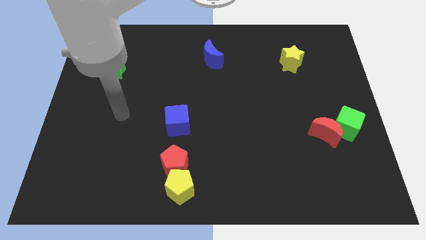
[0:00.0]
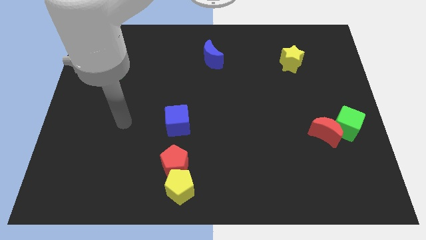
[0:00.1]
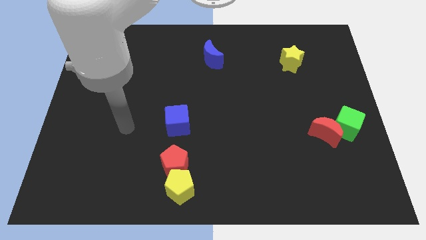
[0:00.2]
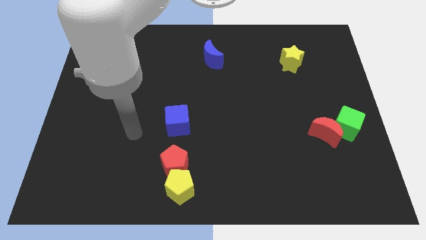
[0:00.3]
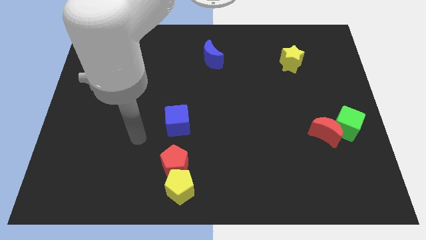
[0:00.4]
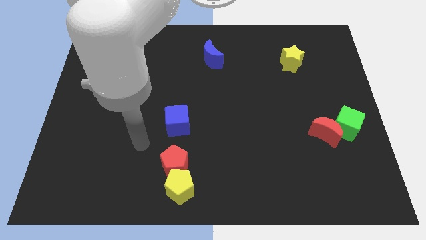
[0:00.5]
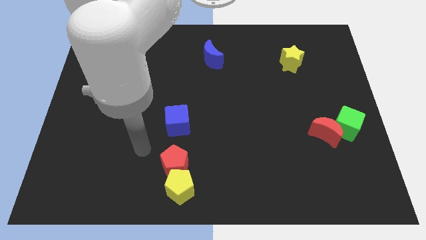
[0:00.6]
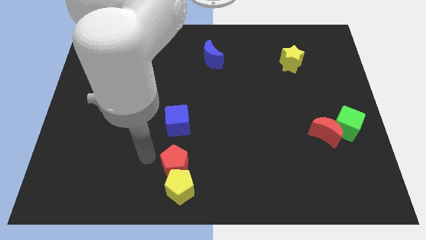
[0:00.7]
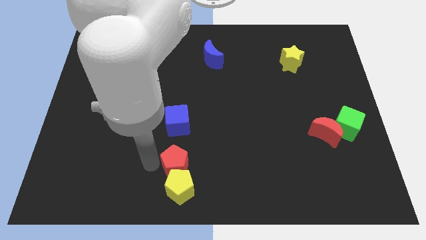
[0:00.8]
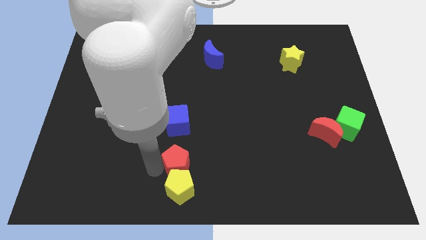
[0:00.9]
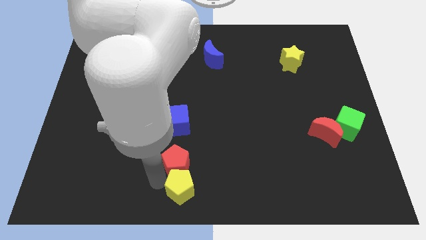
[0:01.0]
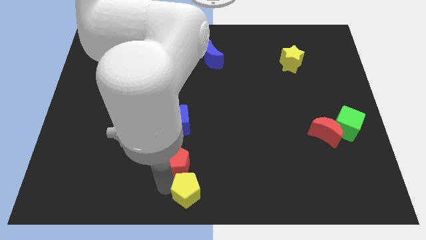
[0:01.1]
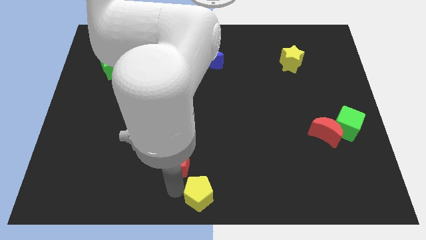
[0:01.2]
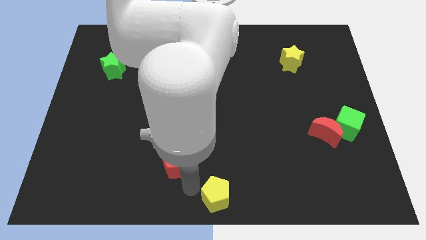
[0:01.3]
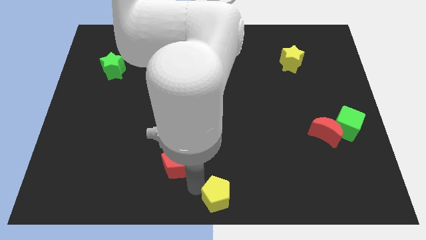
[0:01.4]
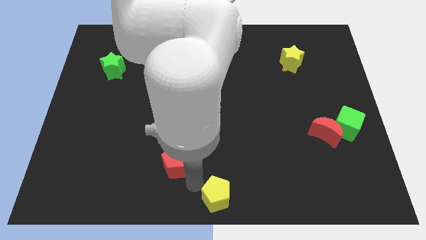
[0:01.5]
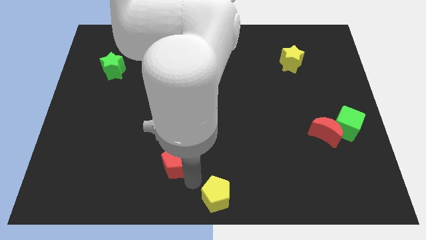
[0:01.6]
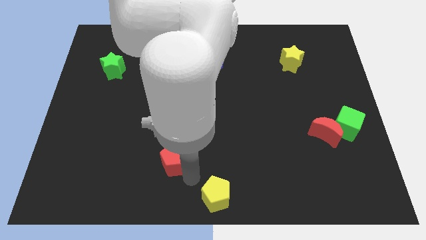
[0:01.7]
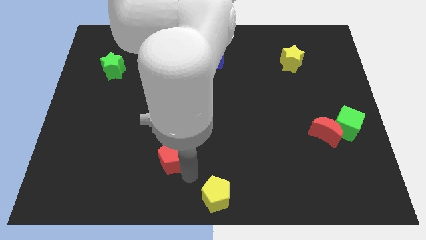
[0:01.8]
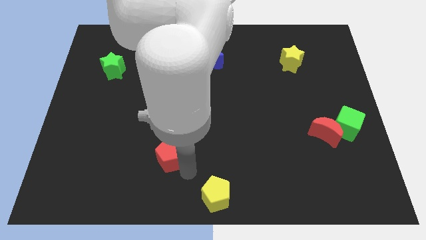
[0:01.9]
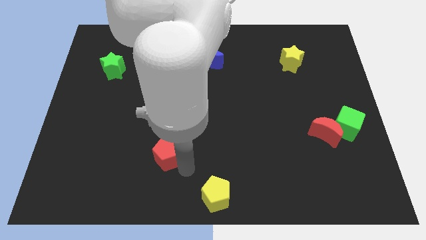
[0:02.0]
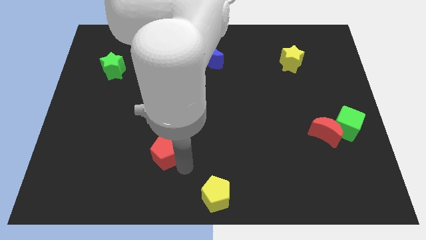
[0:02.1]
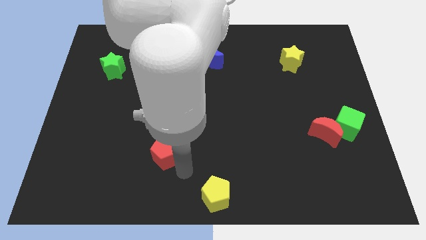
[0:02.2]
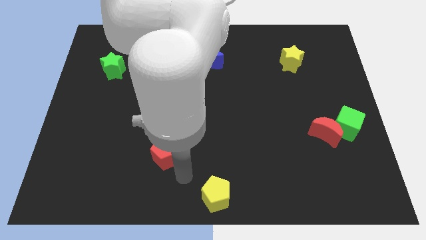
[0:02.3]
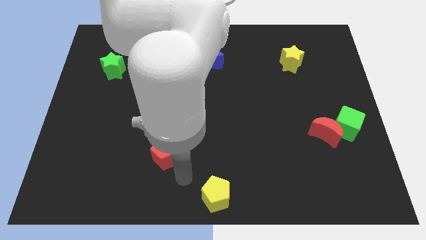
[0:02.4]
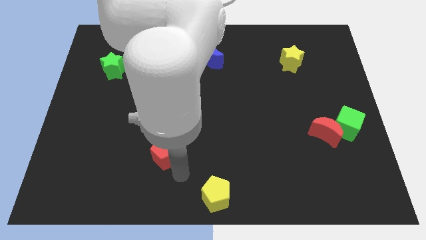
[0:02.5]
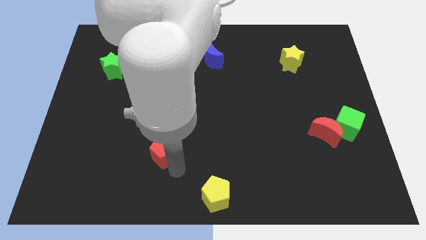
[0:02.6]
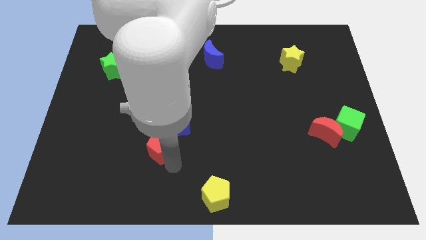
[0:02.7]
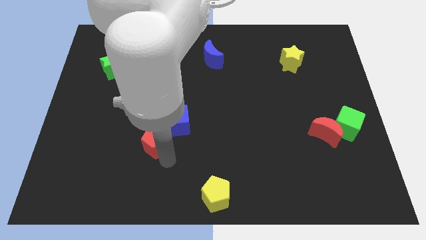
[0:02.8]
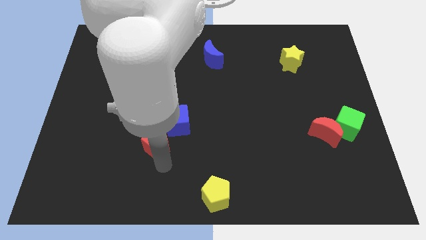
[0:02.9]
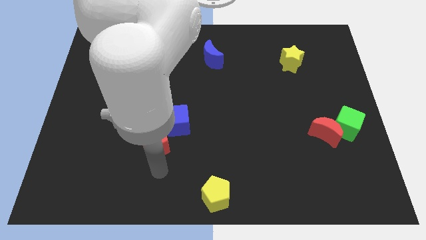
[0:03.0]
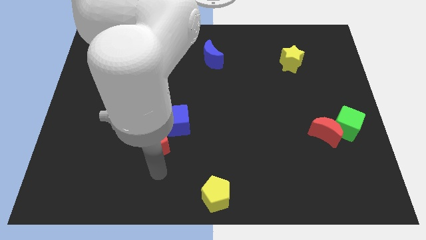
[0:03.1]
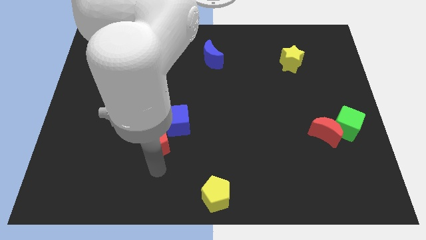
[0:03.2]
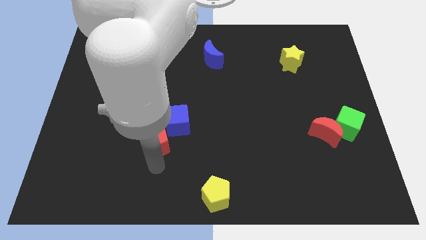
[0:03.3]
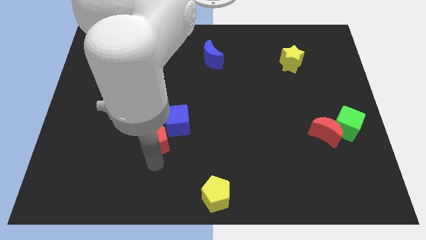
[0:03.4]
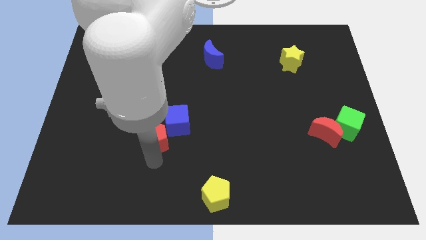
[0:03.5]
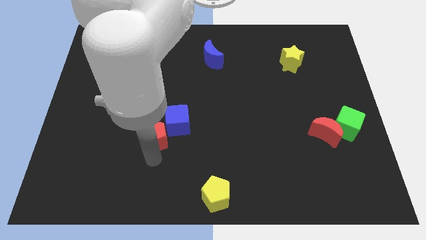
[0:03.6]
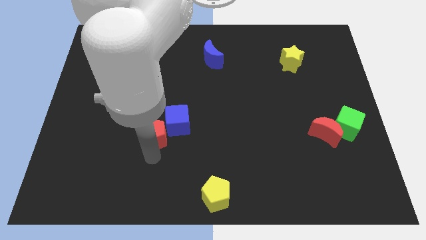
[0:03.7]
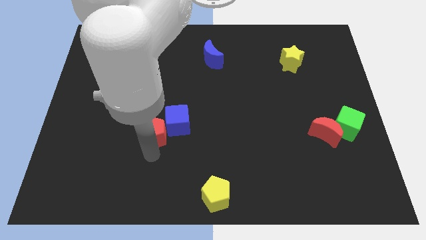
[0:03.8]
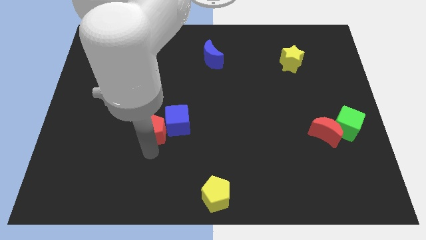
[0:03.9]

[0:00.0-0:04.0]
slightly slide the red pentagon up

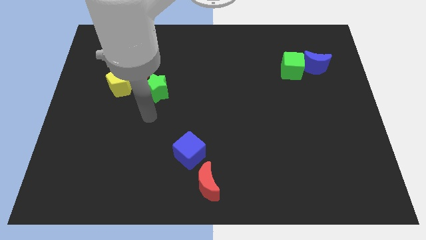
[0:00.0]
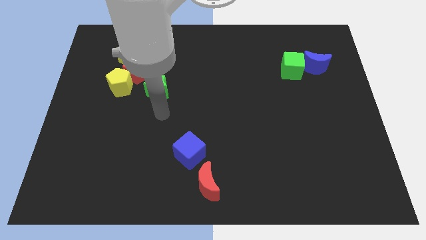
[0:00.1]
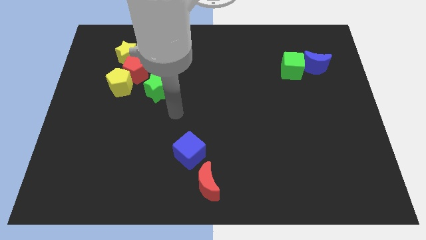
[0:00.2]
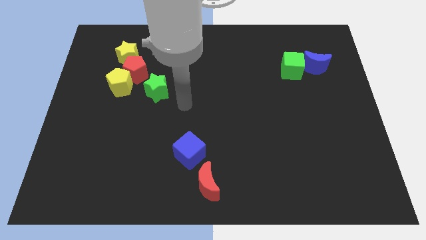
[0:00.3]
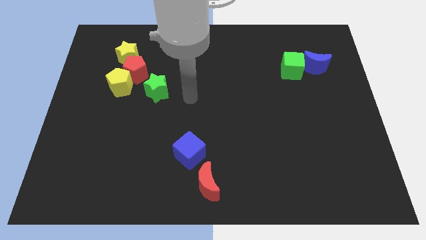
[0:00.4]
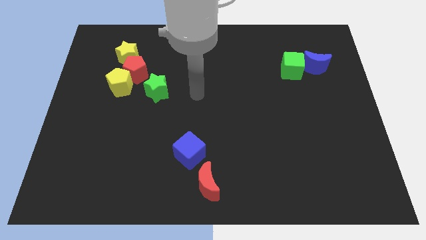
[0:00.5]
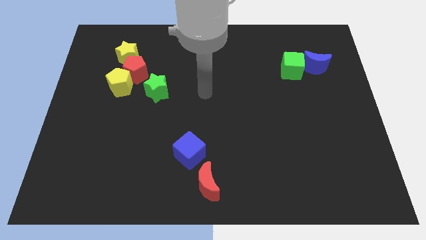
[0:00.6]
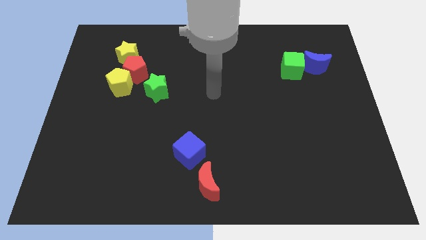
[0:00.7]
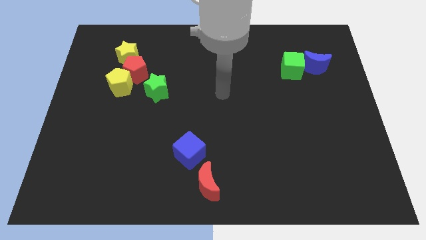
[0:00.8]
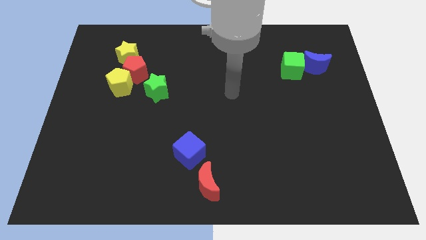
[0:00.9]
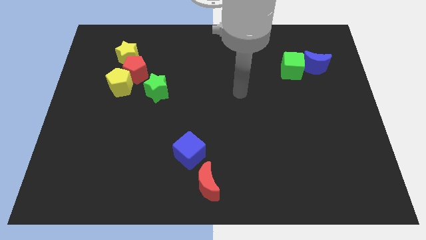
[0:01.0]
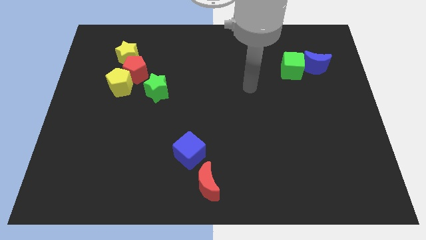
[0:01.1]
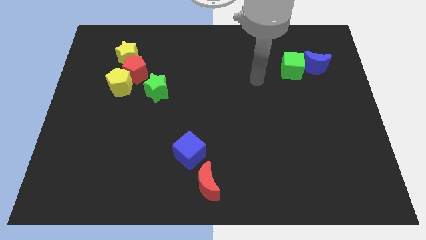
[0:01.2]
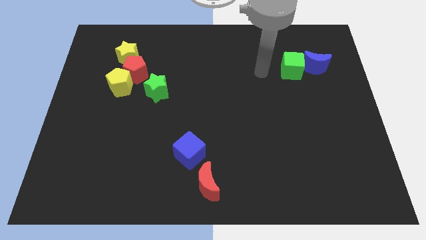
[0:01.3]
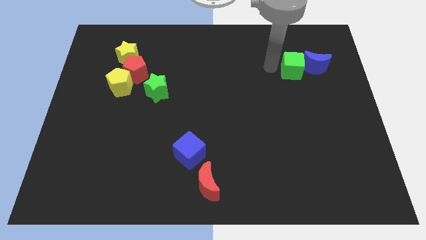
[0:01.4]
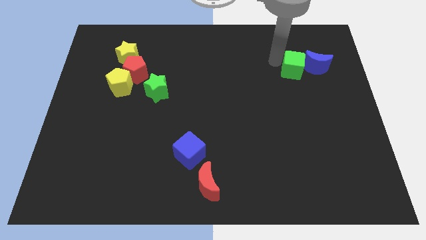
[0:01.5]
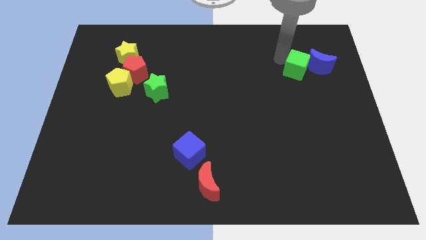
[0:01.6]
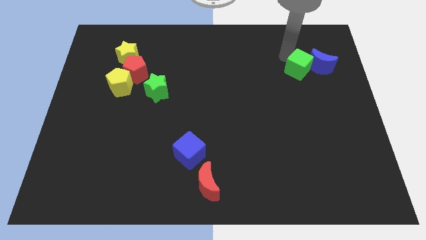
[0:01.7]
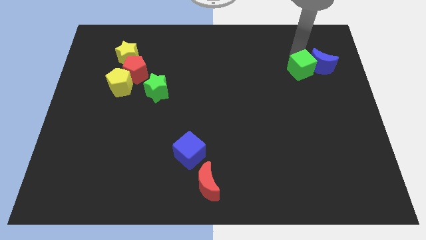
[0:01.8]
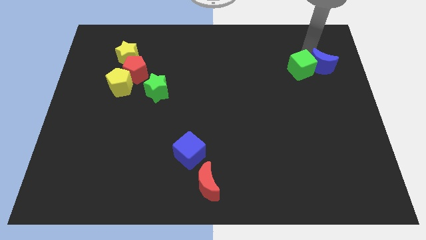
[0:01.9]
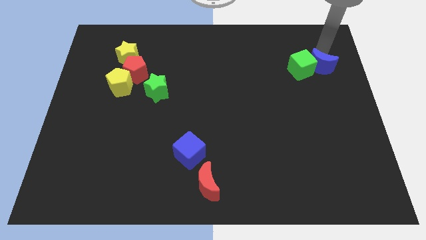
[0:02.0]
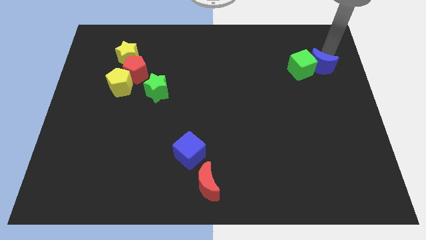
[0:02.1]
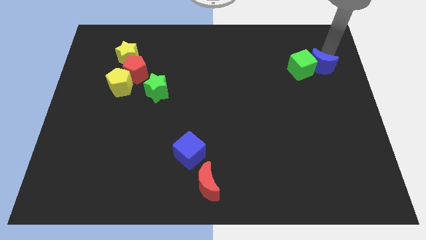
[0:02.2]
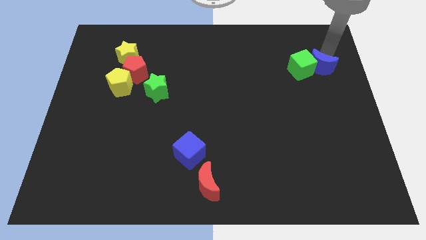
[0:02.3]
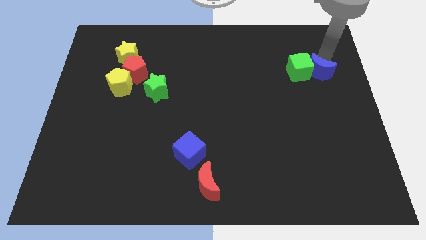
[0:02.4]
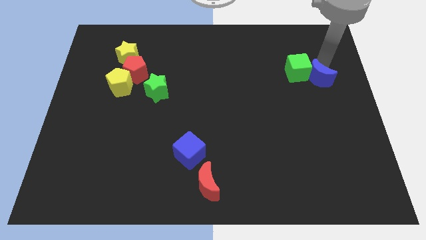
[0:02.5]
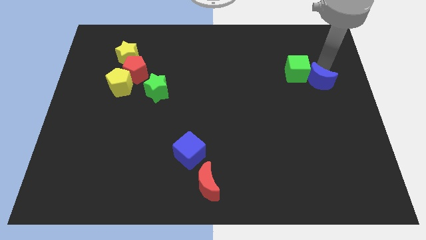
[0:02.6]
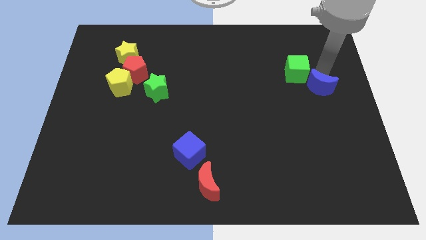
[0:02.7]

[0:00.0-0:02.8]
push the blue moon down a little

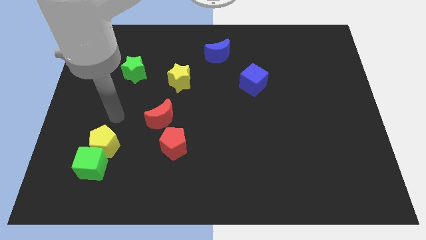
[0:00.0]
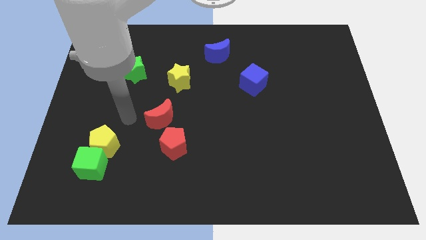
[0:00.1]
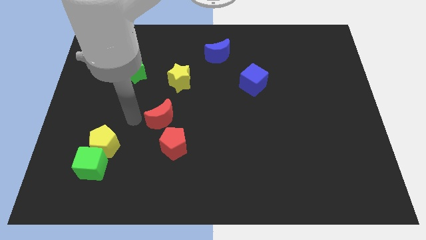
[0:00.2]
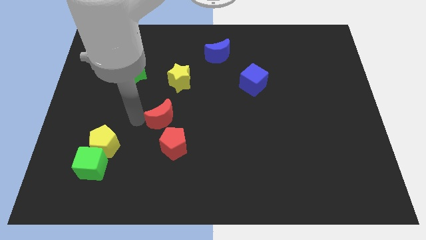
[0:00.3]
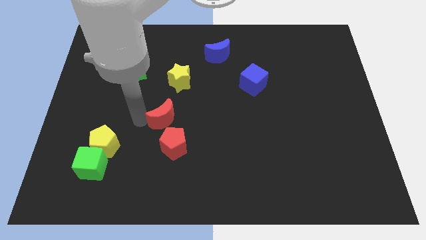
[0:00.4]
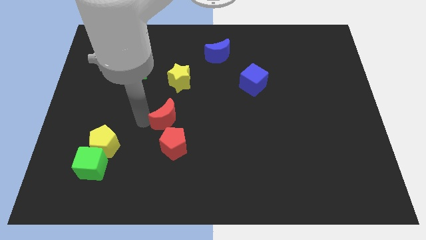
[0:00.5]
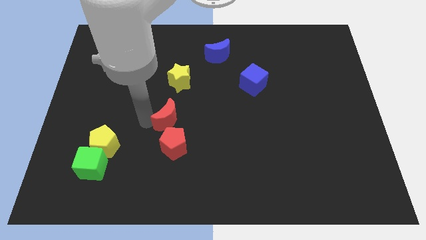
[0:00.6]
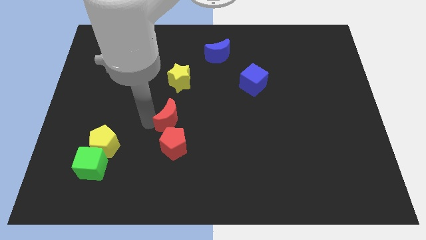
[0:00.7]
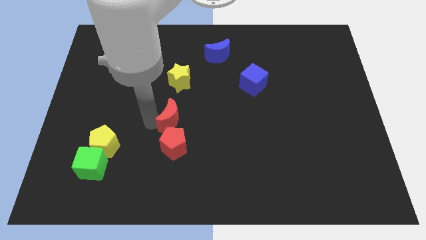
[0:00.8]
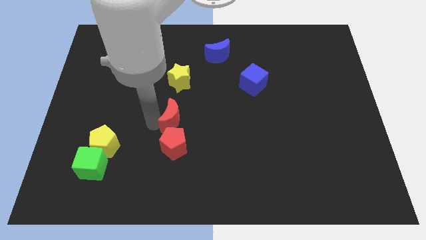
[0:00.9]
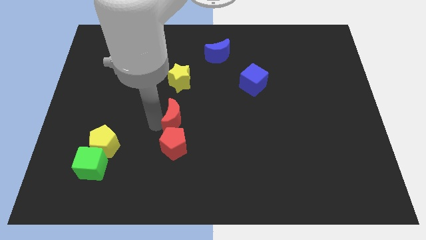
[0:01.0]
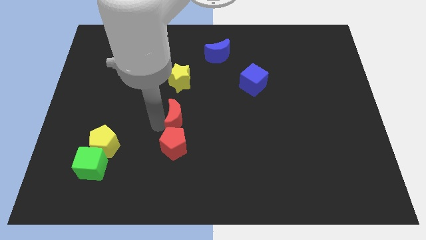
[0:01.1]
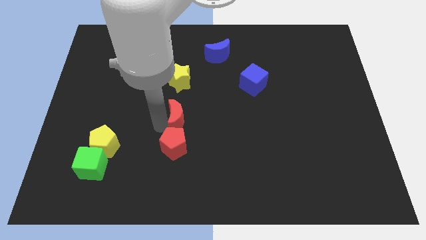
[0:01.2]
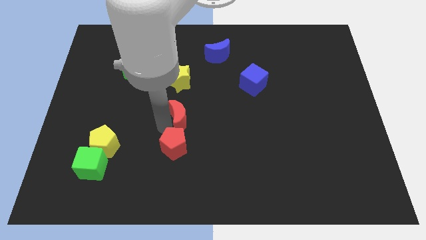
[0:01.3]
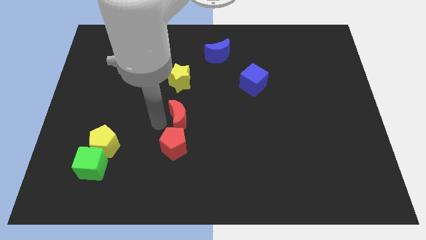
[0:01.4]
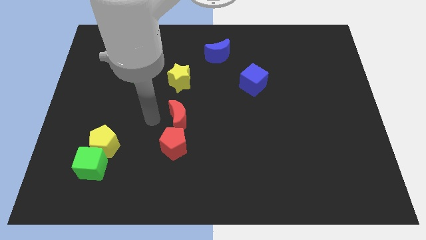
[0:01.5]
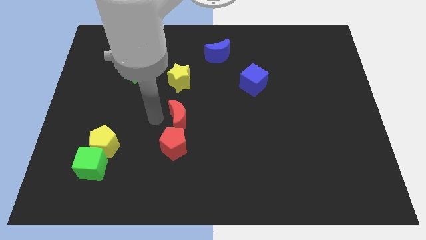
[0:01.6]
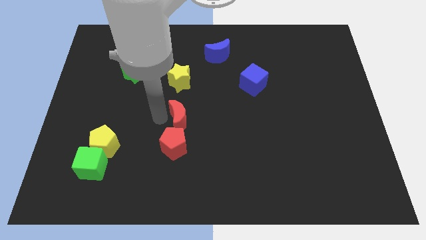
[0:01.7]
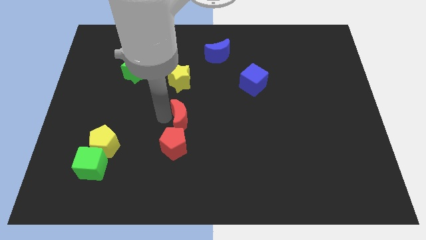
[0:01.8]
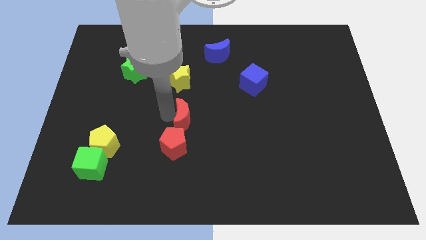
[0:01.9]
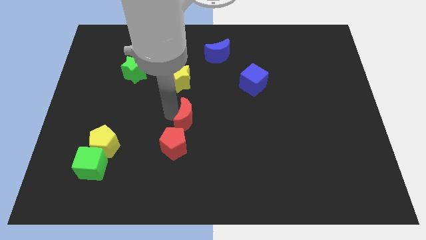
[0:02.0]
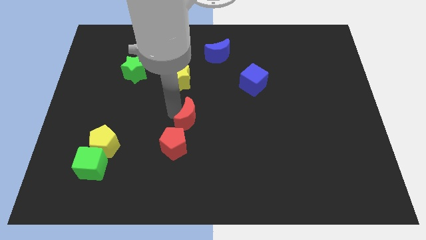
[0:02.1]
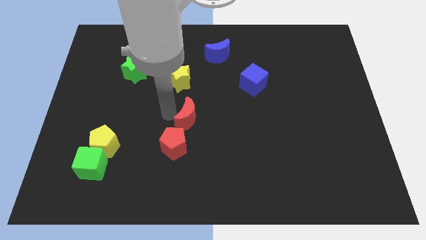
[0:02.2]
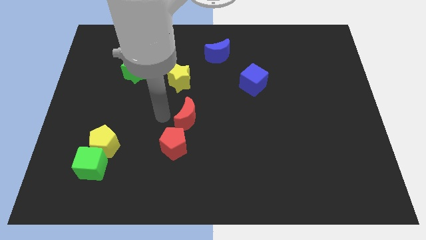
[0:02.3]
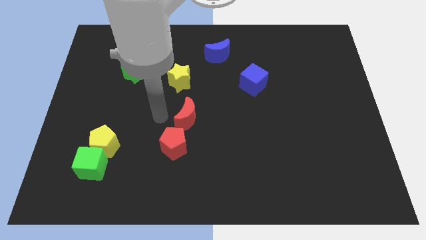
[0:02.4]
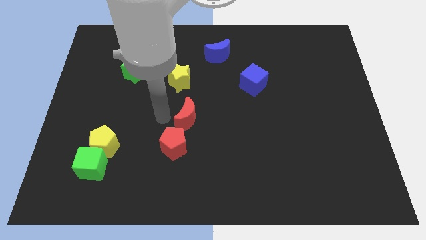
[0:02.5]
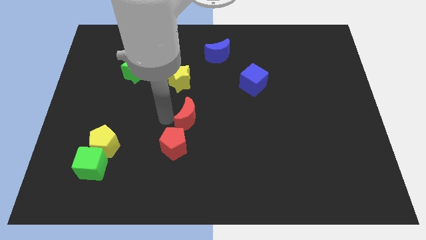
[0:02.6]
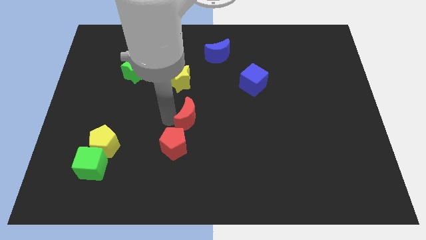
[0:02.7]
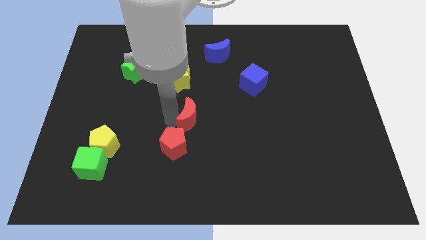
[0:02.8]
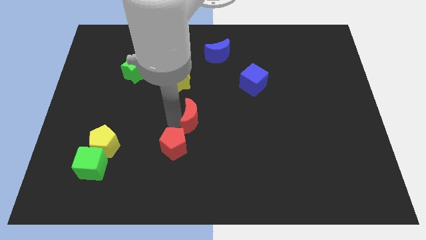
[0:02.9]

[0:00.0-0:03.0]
slightly push the red moon right
